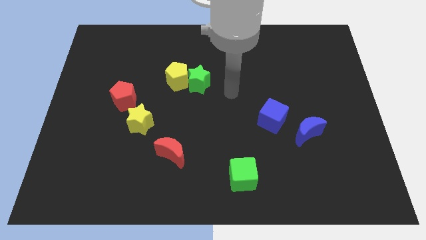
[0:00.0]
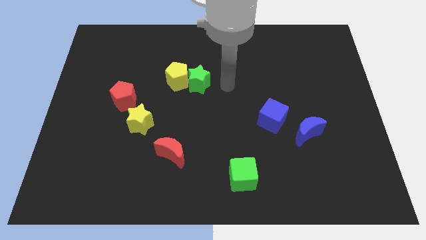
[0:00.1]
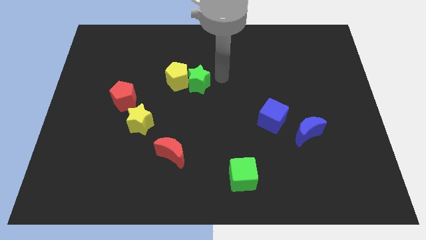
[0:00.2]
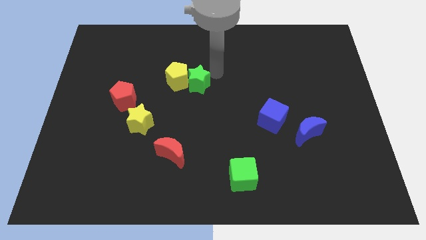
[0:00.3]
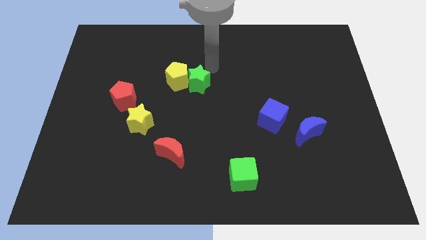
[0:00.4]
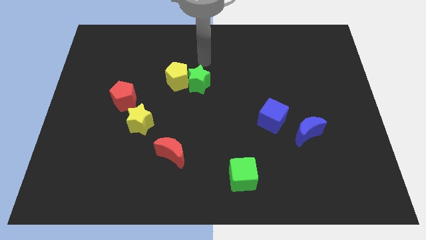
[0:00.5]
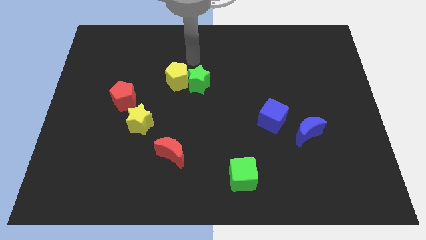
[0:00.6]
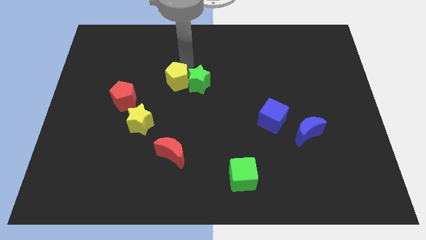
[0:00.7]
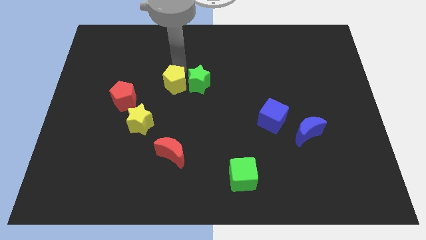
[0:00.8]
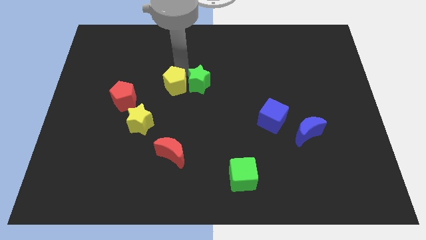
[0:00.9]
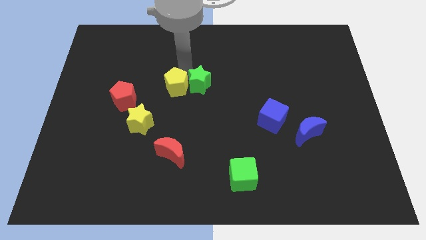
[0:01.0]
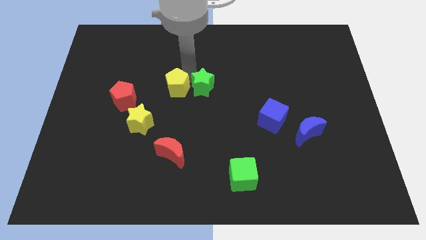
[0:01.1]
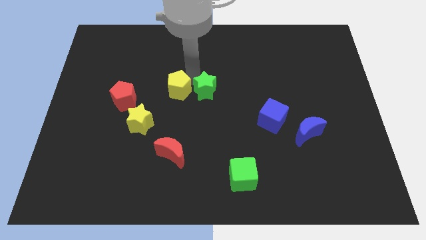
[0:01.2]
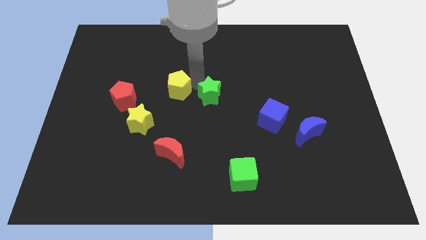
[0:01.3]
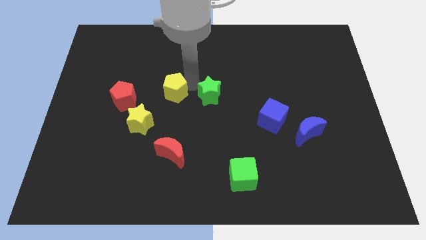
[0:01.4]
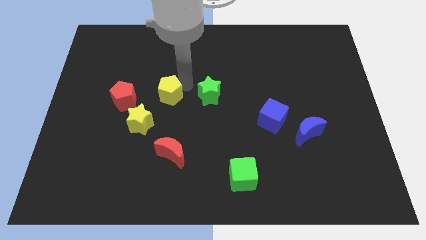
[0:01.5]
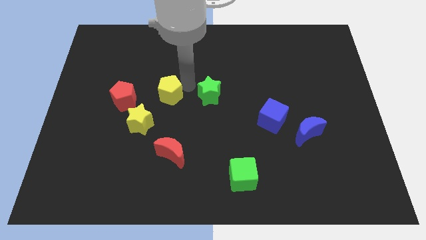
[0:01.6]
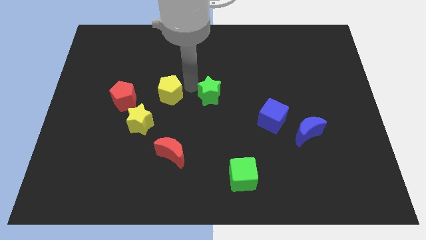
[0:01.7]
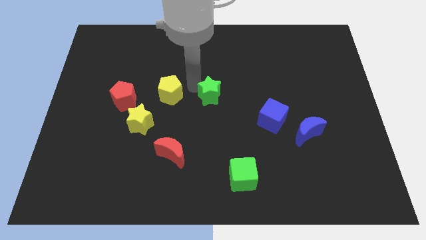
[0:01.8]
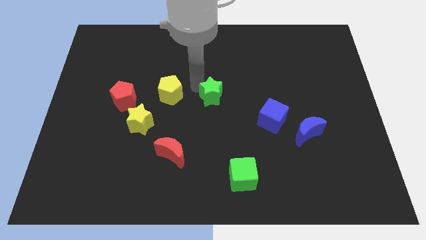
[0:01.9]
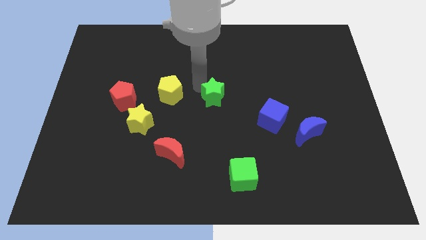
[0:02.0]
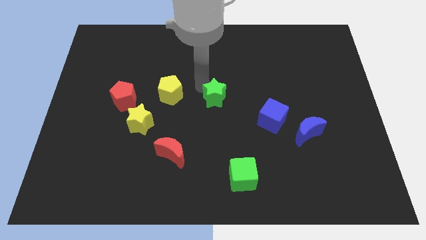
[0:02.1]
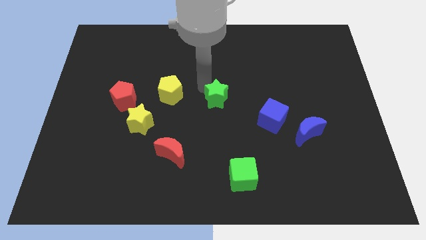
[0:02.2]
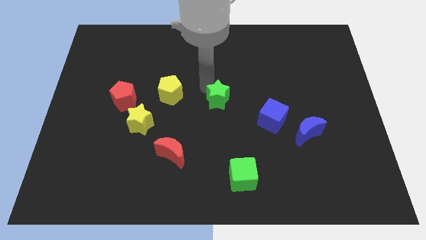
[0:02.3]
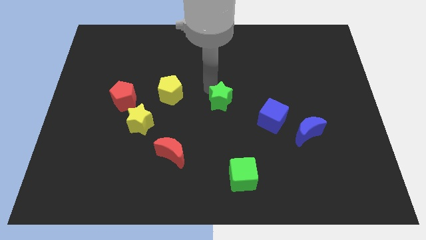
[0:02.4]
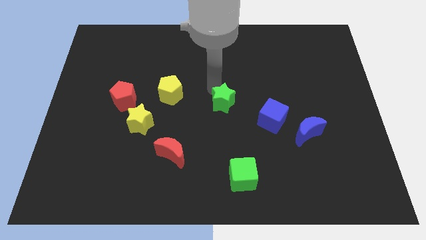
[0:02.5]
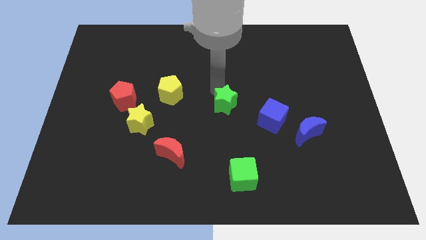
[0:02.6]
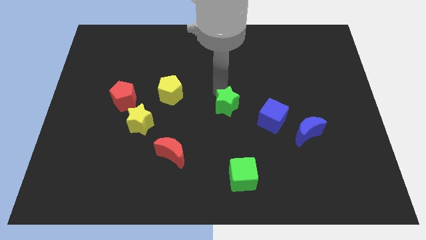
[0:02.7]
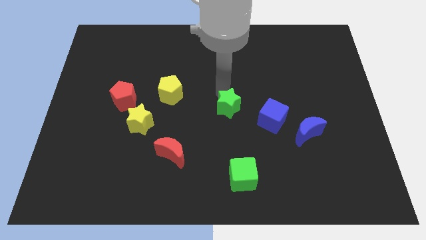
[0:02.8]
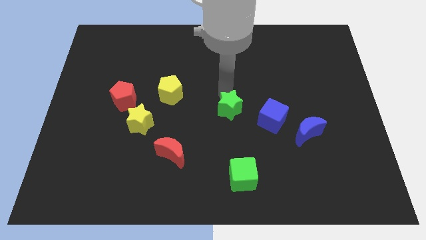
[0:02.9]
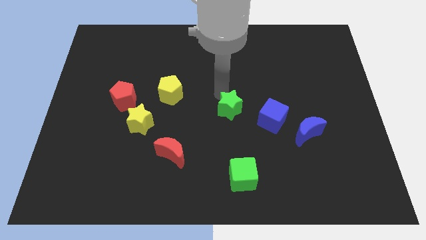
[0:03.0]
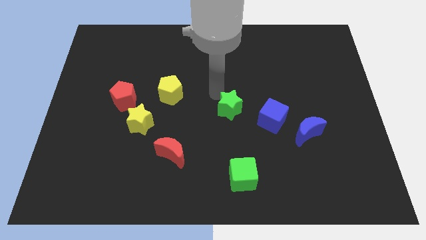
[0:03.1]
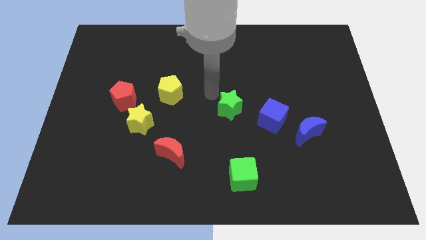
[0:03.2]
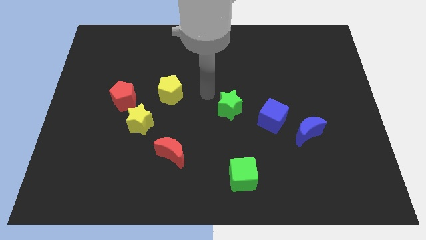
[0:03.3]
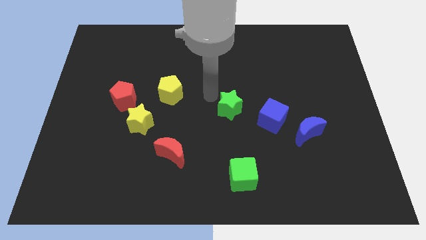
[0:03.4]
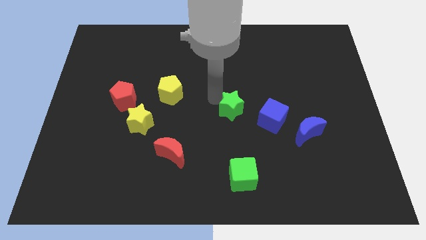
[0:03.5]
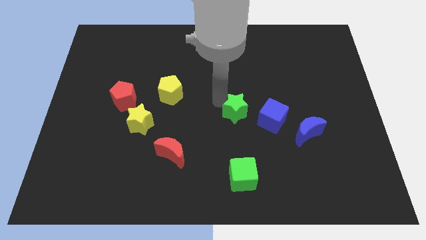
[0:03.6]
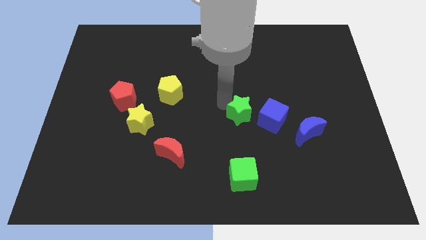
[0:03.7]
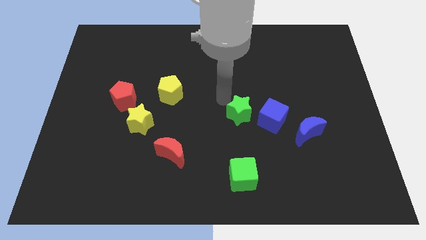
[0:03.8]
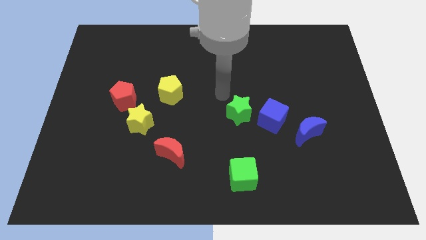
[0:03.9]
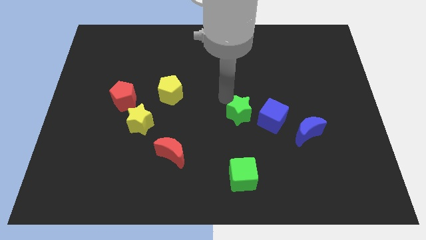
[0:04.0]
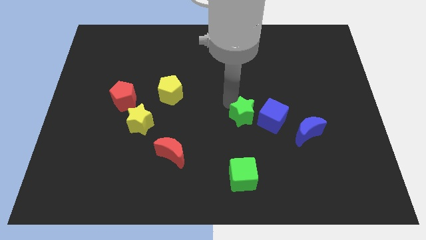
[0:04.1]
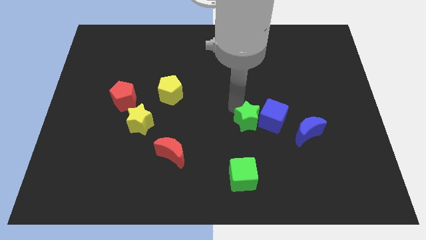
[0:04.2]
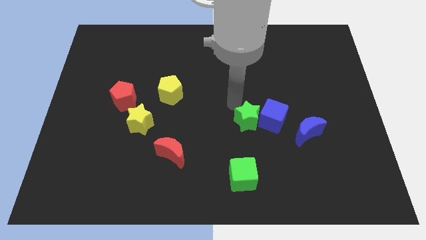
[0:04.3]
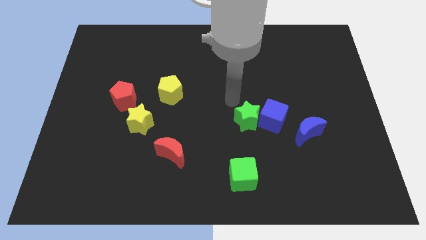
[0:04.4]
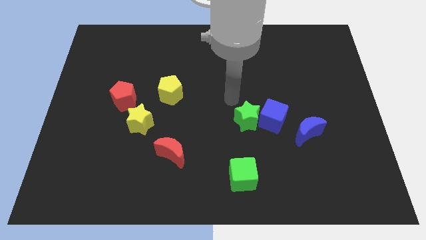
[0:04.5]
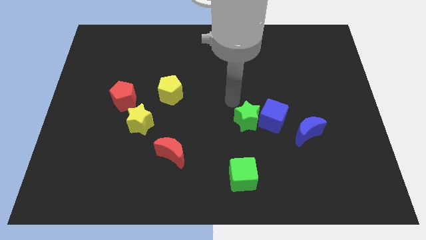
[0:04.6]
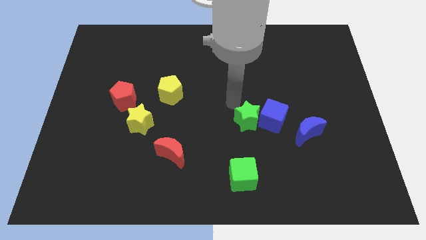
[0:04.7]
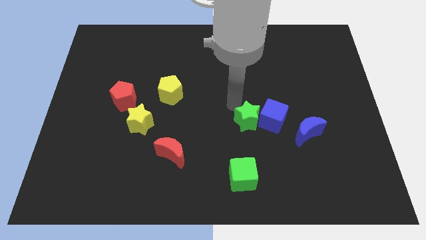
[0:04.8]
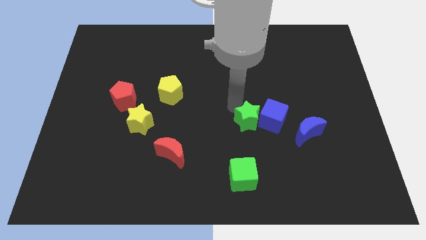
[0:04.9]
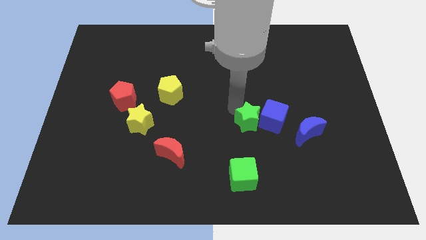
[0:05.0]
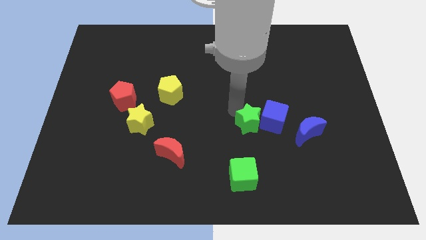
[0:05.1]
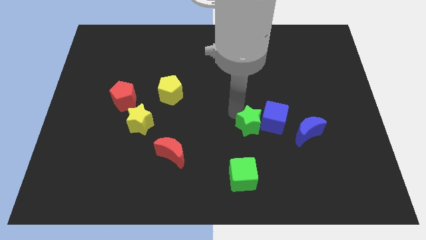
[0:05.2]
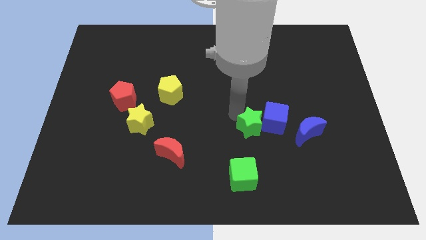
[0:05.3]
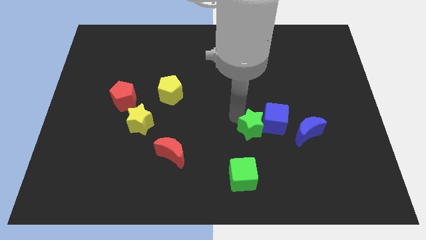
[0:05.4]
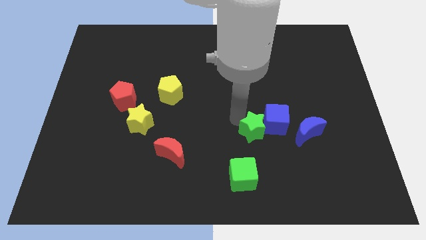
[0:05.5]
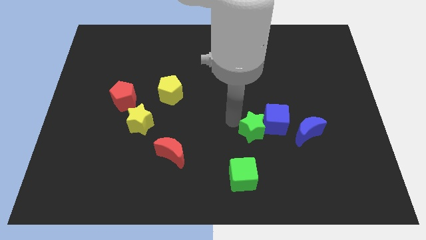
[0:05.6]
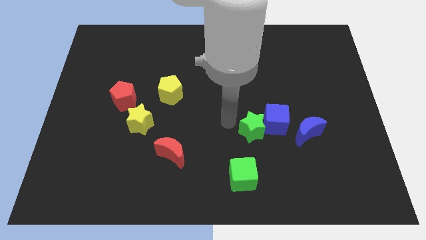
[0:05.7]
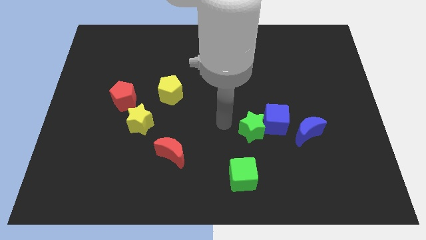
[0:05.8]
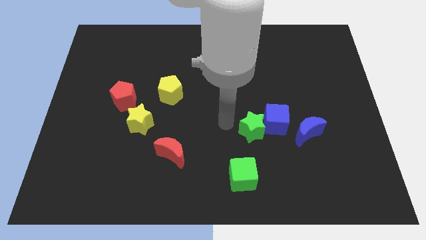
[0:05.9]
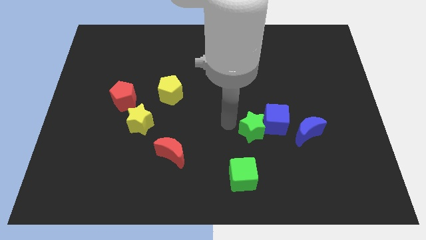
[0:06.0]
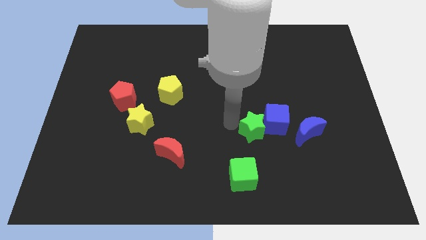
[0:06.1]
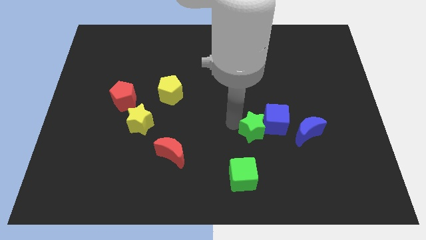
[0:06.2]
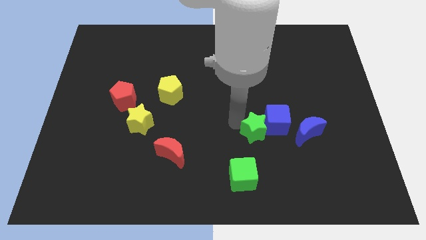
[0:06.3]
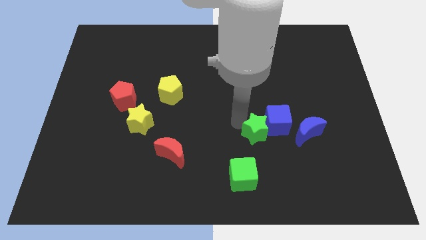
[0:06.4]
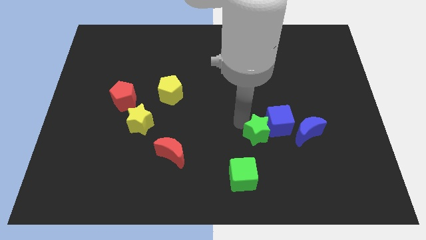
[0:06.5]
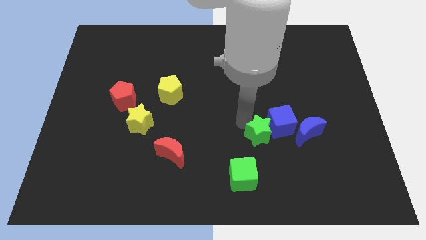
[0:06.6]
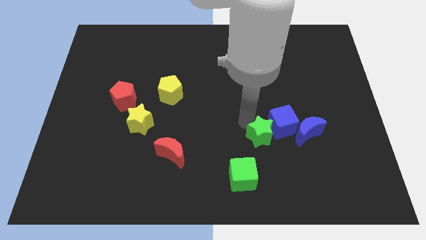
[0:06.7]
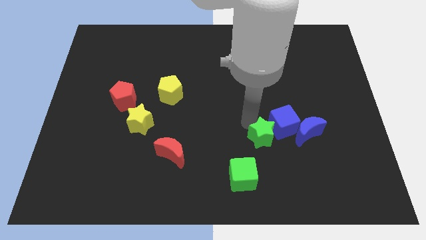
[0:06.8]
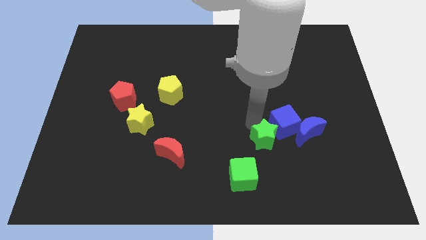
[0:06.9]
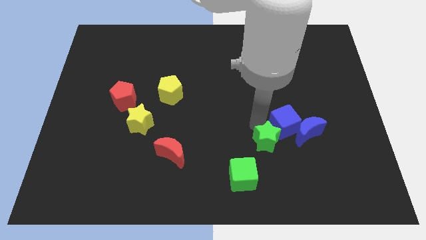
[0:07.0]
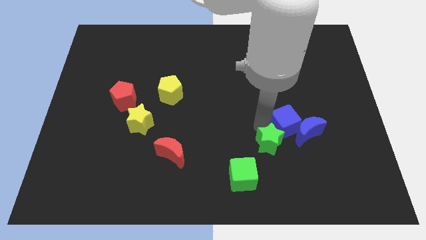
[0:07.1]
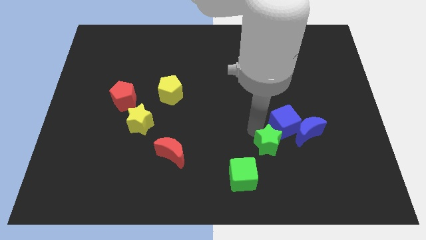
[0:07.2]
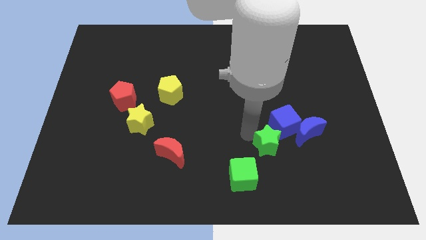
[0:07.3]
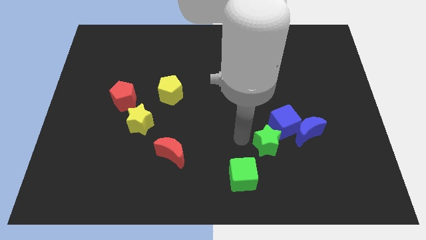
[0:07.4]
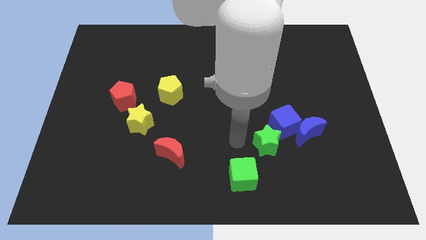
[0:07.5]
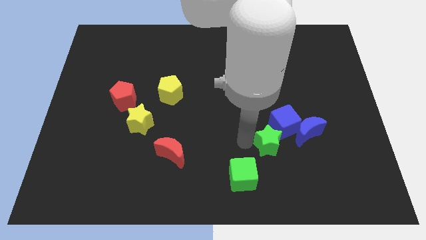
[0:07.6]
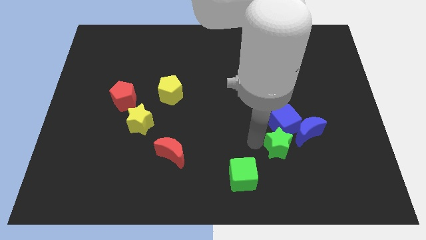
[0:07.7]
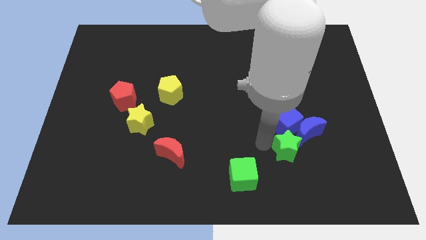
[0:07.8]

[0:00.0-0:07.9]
move the green star to the bottom right side of the blue cube
